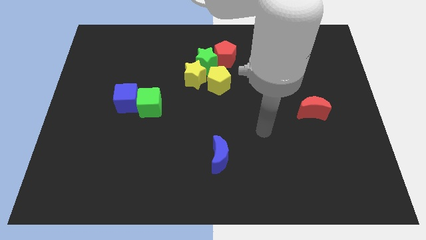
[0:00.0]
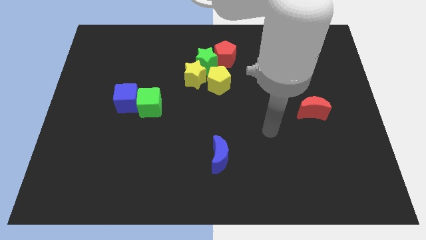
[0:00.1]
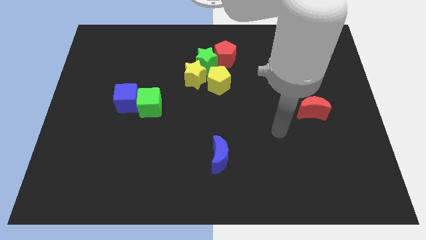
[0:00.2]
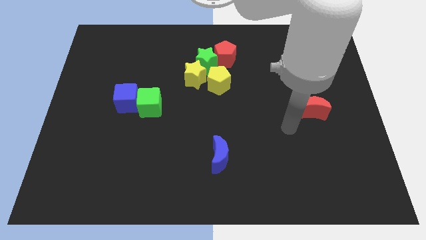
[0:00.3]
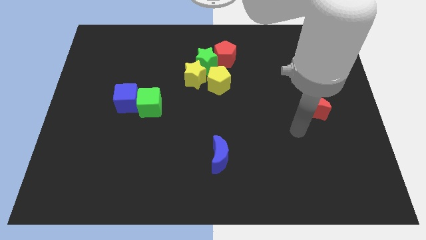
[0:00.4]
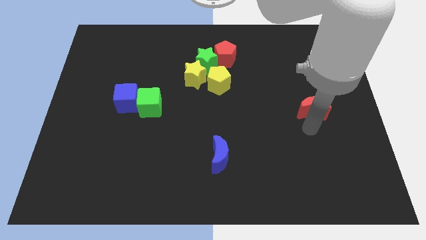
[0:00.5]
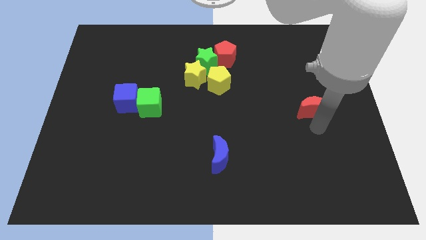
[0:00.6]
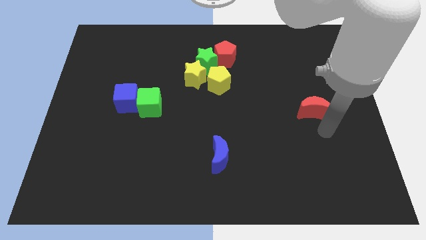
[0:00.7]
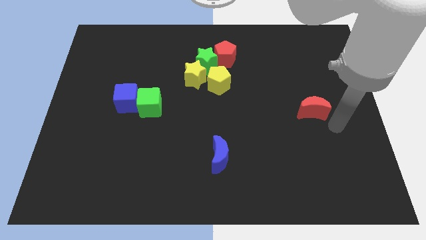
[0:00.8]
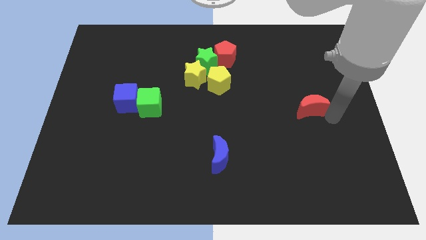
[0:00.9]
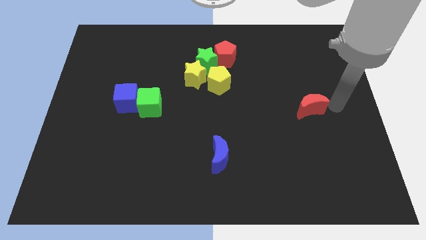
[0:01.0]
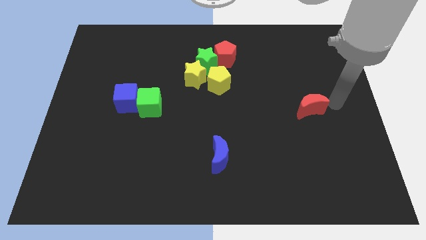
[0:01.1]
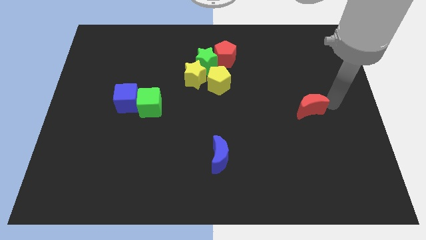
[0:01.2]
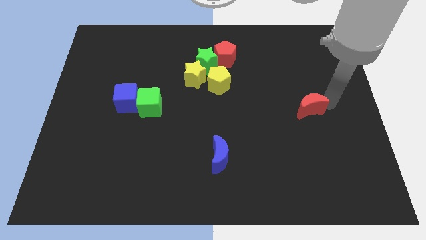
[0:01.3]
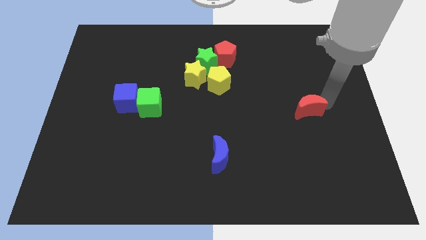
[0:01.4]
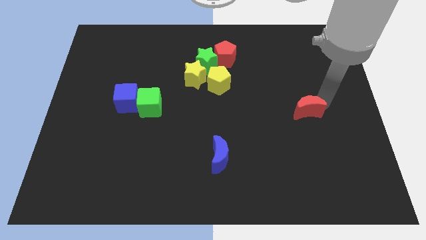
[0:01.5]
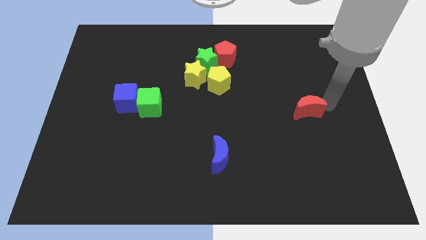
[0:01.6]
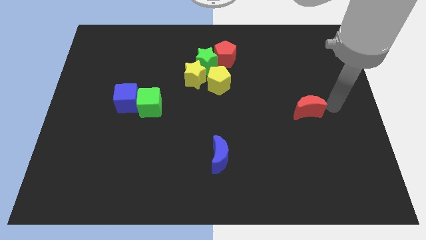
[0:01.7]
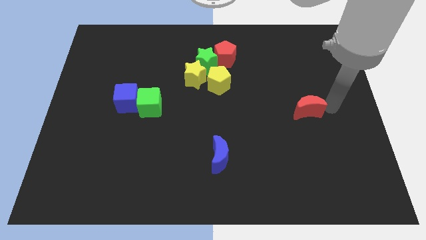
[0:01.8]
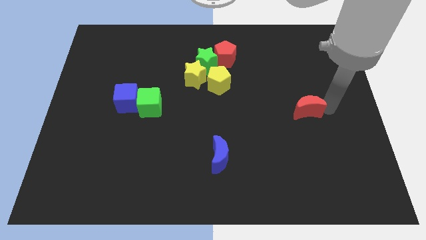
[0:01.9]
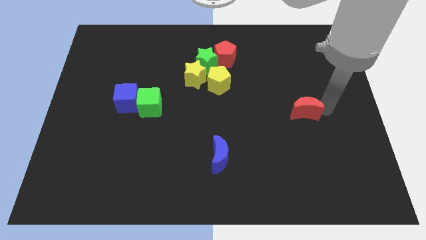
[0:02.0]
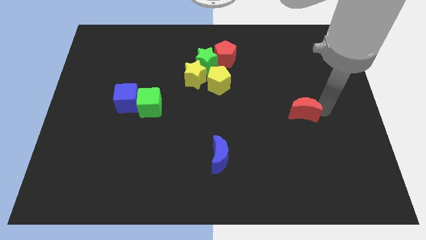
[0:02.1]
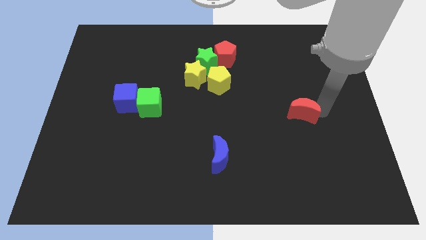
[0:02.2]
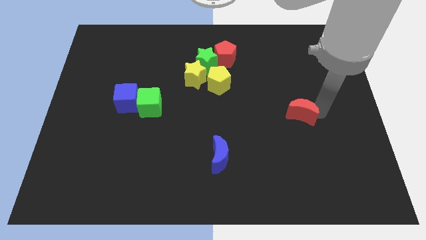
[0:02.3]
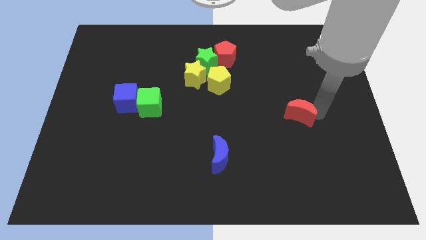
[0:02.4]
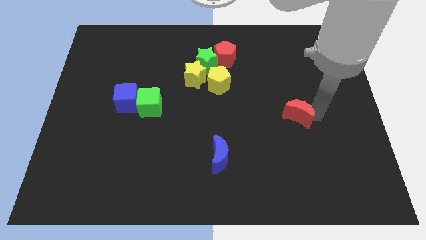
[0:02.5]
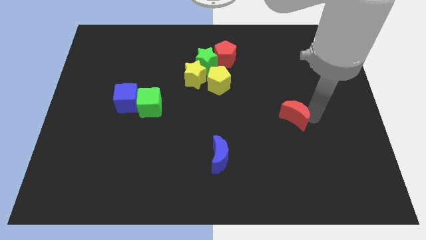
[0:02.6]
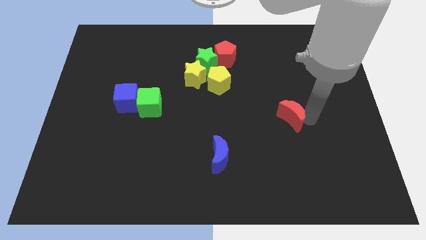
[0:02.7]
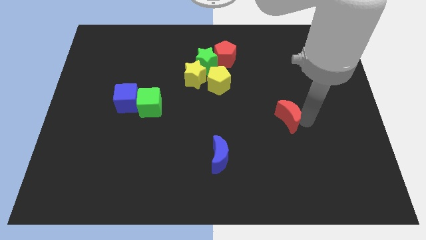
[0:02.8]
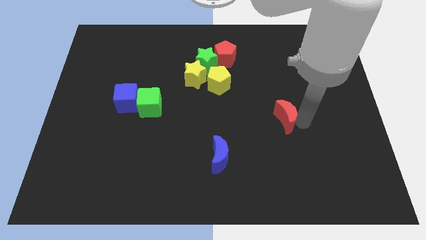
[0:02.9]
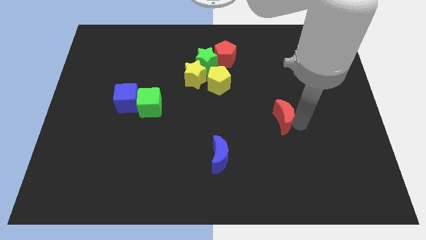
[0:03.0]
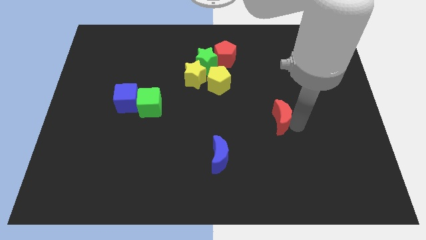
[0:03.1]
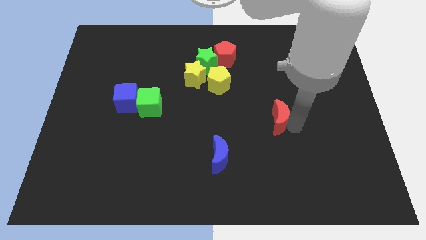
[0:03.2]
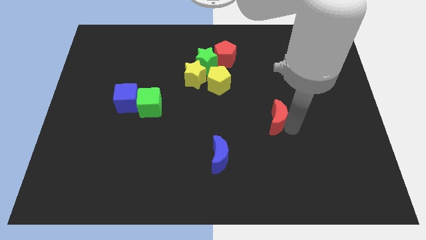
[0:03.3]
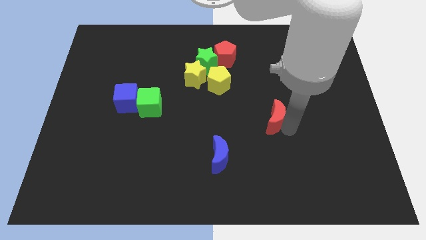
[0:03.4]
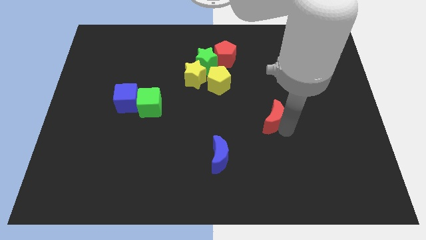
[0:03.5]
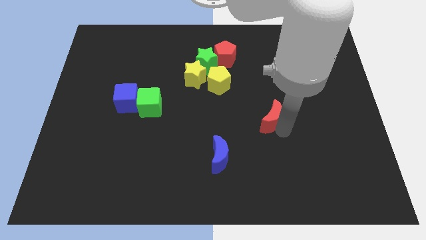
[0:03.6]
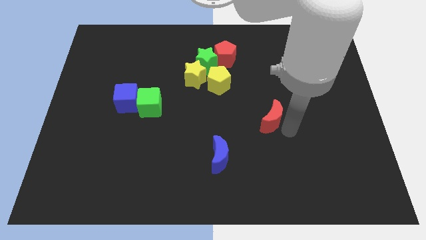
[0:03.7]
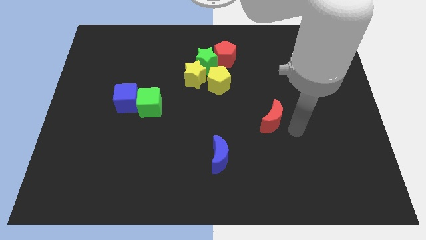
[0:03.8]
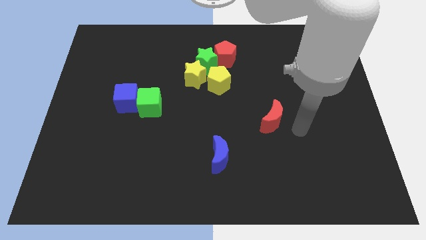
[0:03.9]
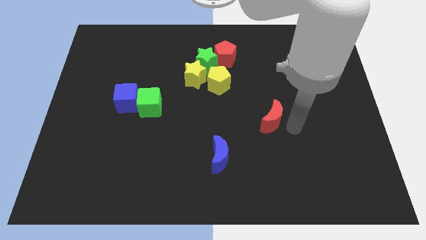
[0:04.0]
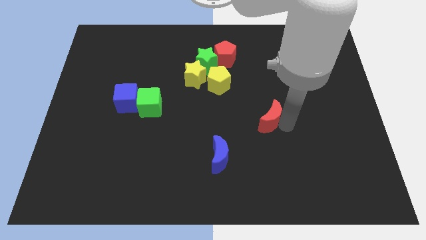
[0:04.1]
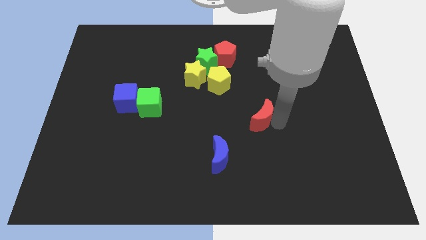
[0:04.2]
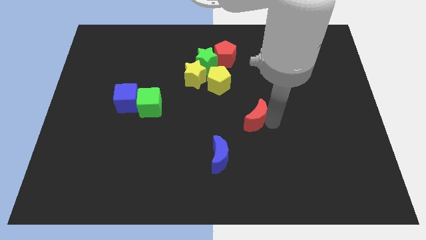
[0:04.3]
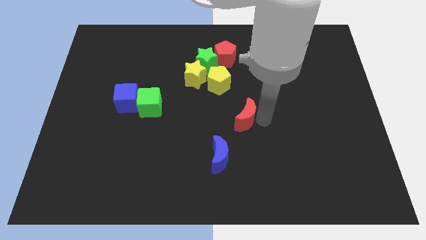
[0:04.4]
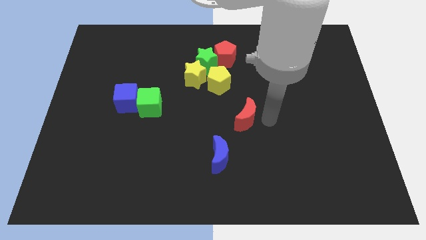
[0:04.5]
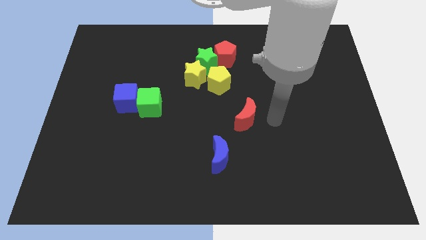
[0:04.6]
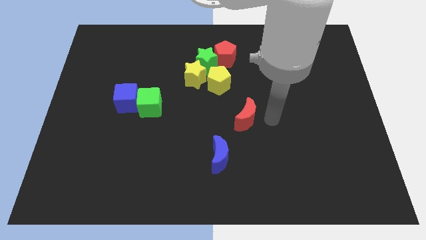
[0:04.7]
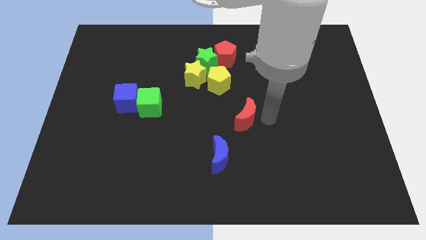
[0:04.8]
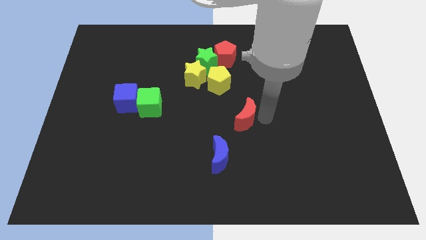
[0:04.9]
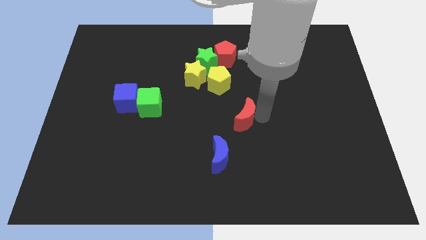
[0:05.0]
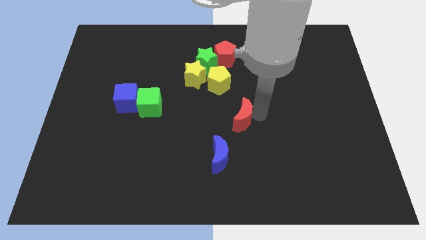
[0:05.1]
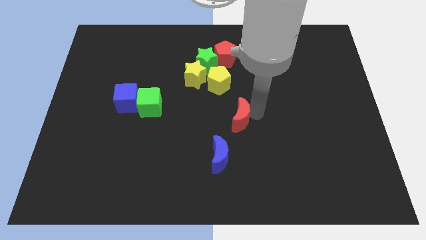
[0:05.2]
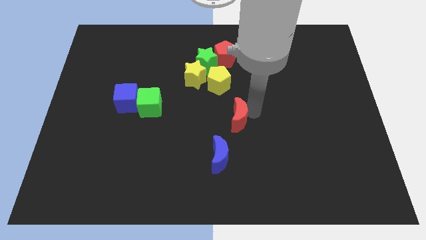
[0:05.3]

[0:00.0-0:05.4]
push the red moon below the yellow pentagon

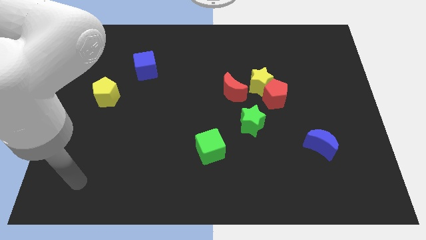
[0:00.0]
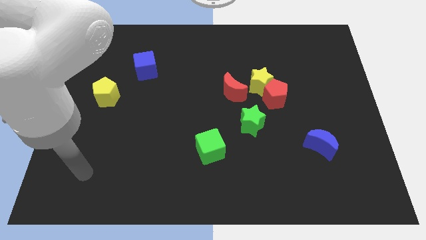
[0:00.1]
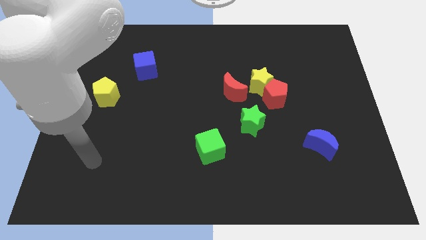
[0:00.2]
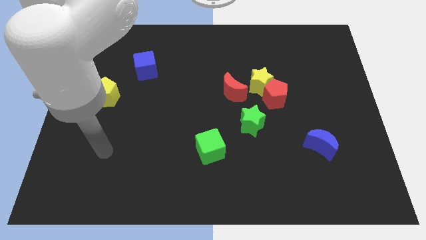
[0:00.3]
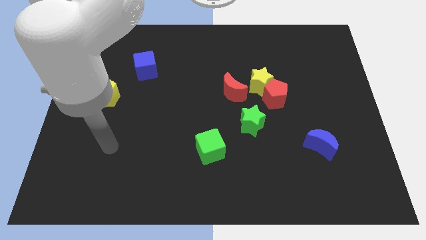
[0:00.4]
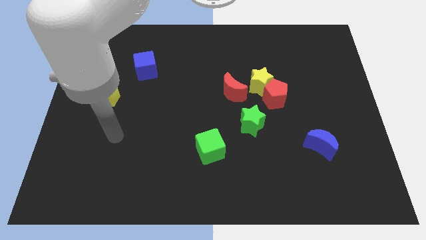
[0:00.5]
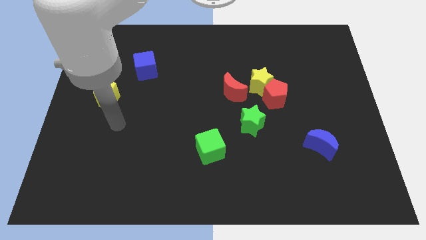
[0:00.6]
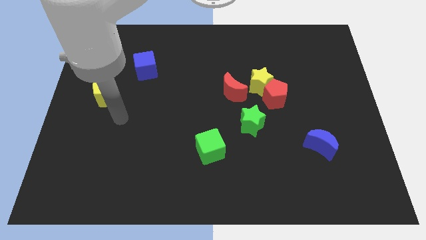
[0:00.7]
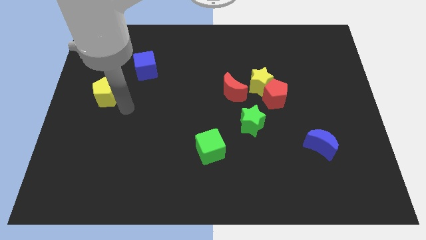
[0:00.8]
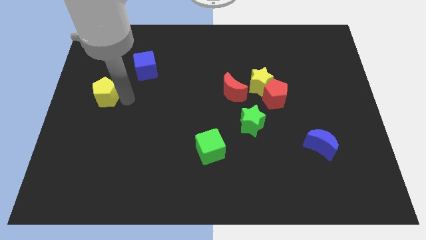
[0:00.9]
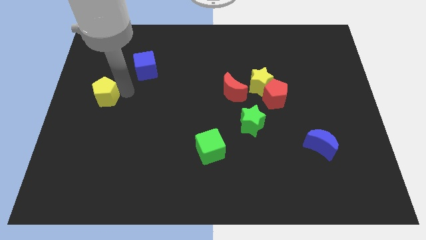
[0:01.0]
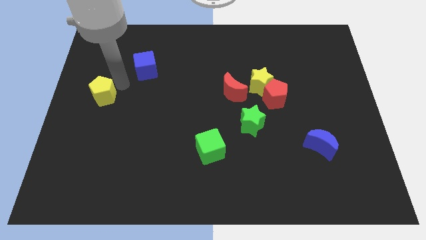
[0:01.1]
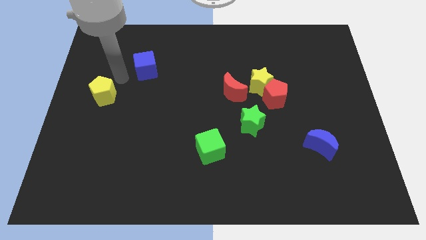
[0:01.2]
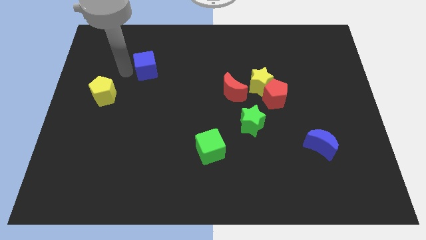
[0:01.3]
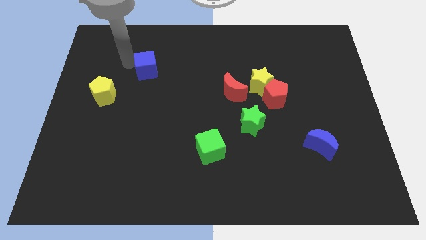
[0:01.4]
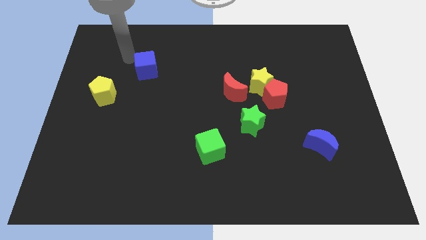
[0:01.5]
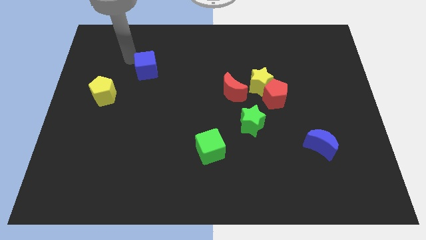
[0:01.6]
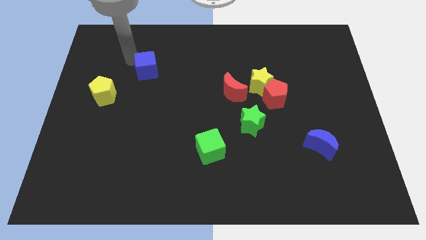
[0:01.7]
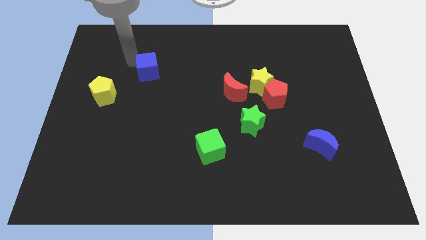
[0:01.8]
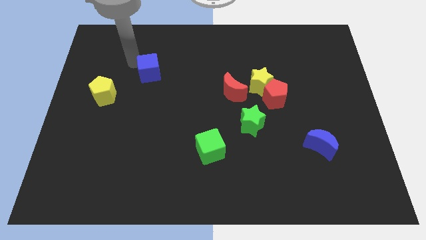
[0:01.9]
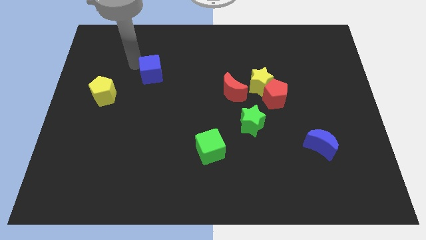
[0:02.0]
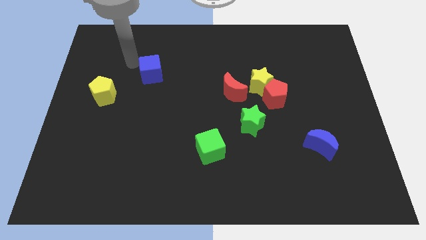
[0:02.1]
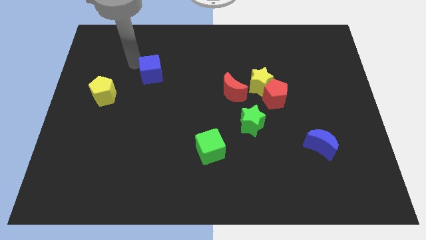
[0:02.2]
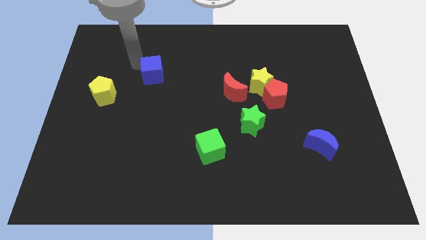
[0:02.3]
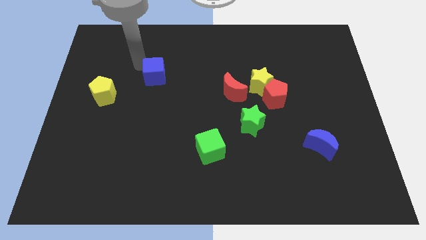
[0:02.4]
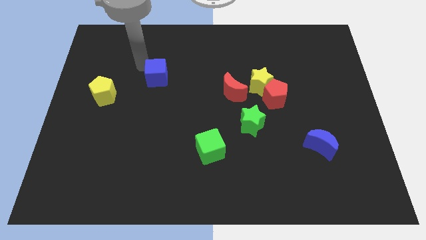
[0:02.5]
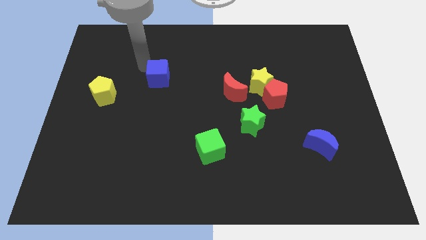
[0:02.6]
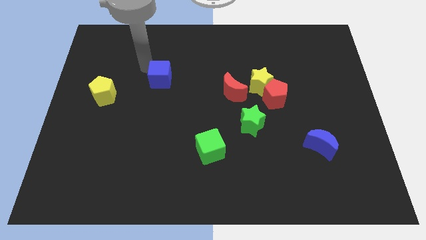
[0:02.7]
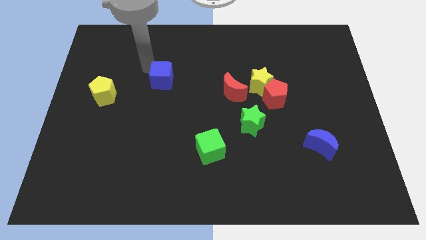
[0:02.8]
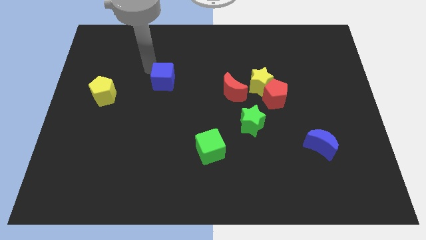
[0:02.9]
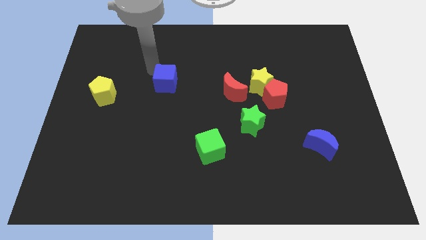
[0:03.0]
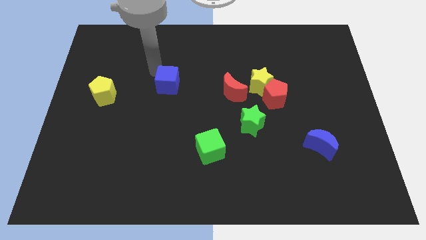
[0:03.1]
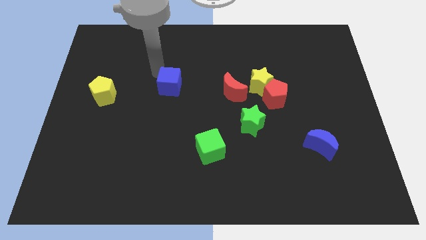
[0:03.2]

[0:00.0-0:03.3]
slide the blue cube to the left side of the red moon
